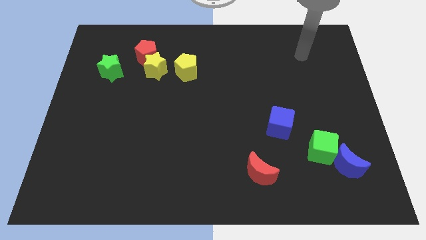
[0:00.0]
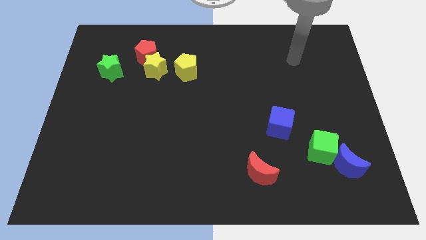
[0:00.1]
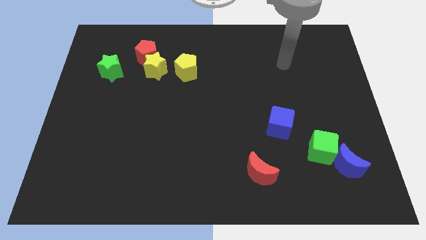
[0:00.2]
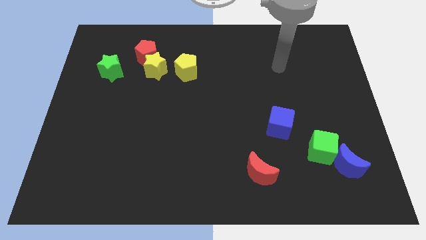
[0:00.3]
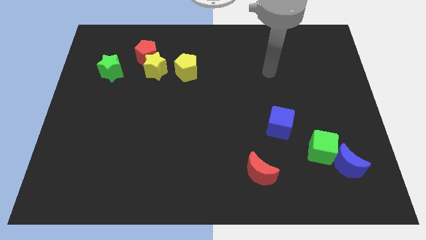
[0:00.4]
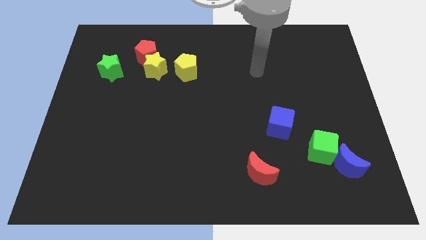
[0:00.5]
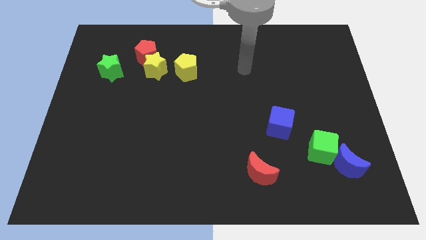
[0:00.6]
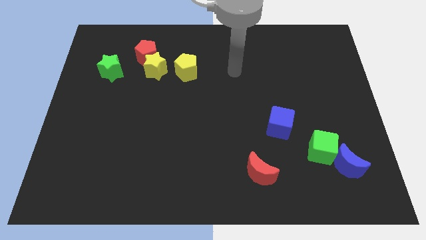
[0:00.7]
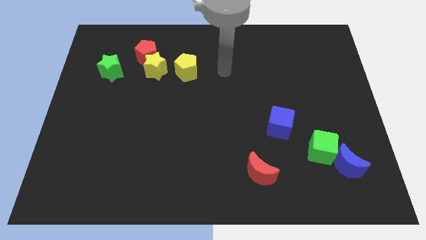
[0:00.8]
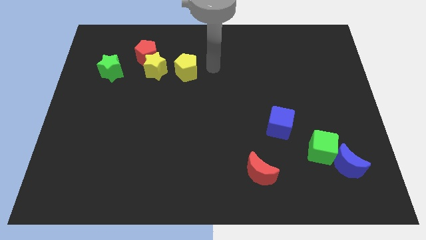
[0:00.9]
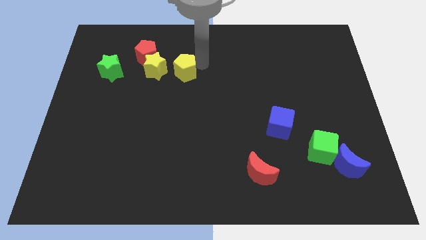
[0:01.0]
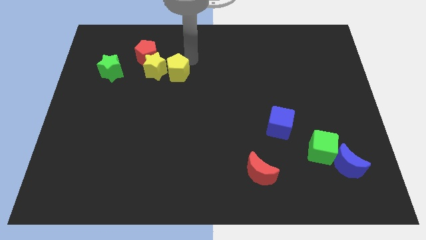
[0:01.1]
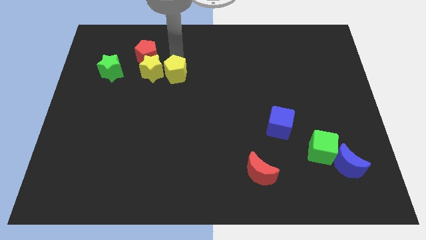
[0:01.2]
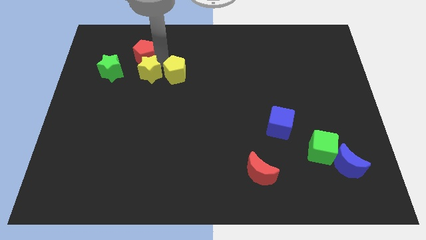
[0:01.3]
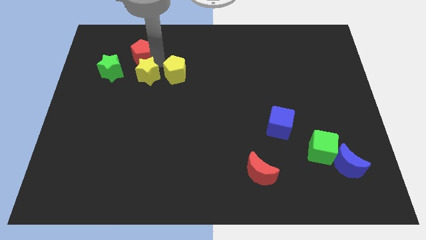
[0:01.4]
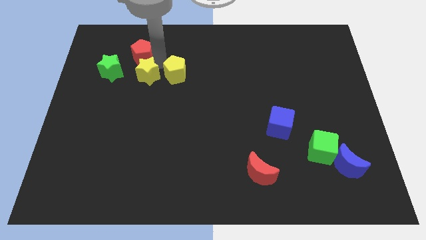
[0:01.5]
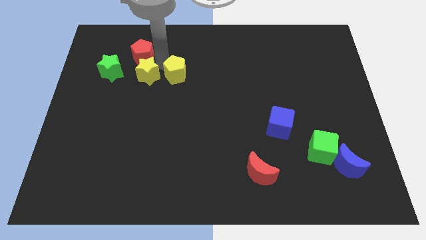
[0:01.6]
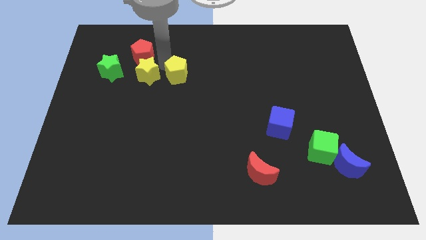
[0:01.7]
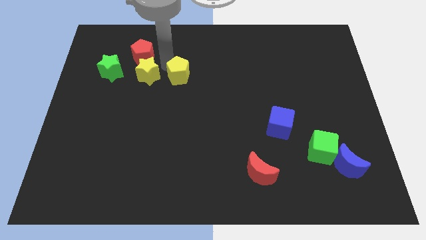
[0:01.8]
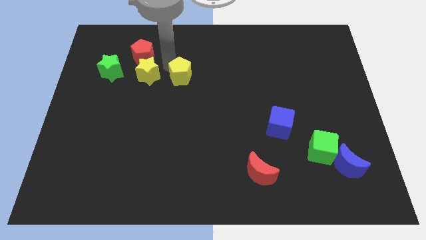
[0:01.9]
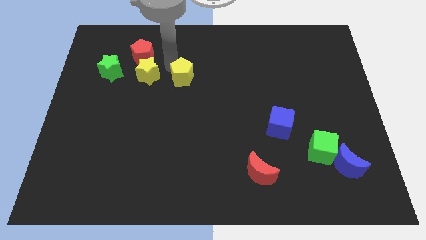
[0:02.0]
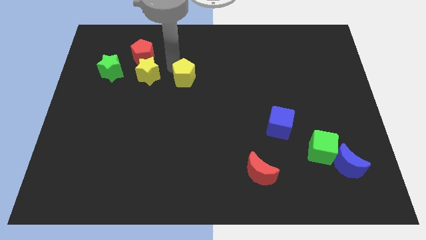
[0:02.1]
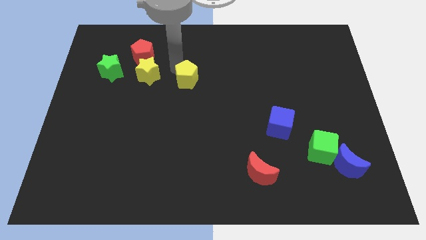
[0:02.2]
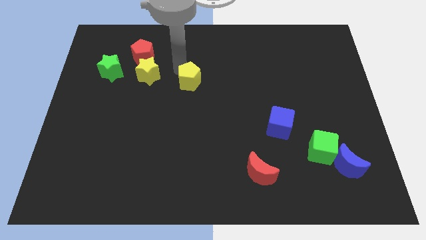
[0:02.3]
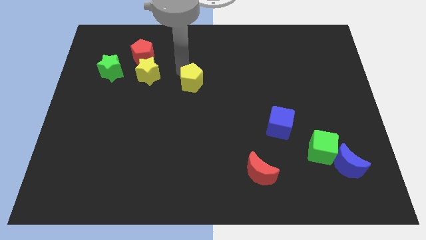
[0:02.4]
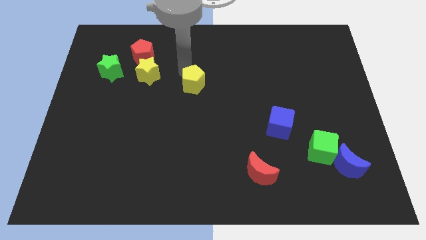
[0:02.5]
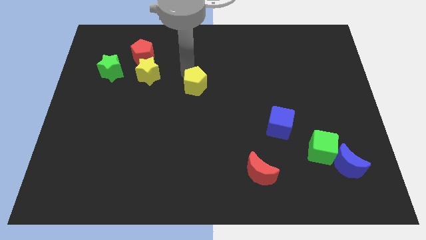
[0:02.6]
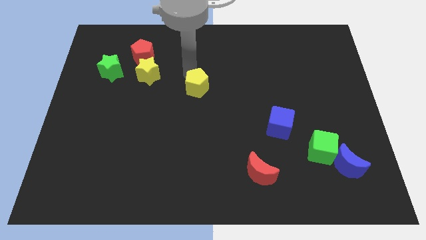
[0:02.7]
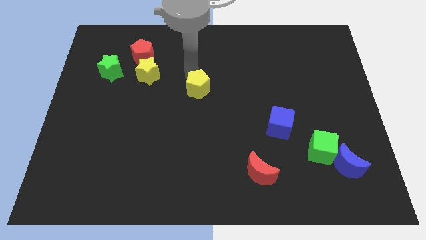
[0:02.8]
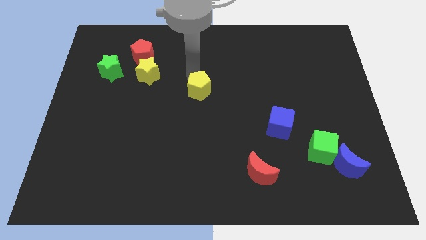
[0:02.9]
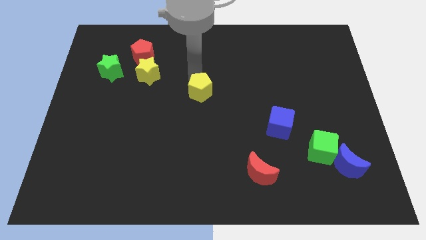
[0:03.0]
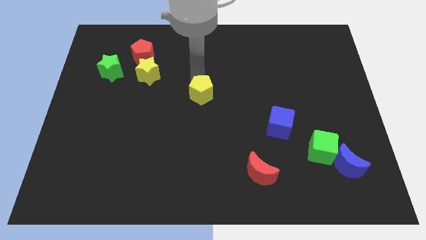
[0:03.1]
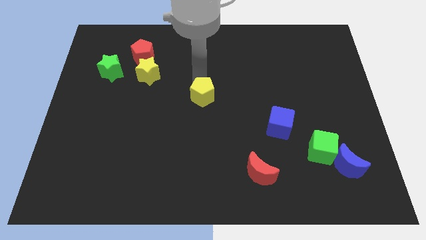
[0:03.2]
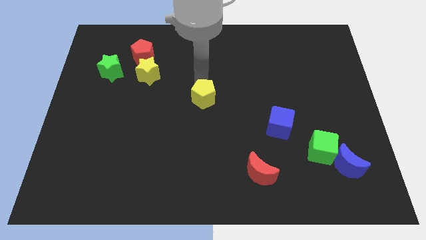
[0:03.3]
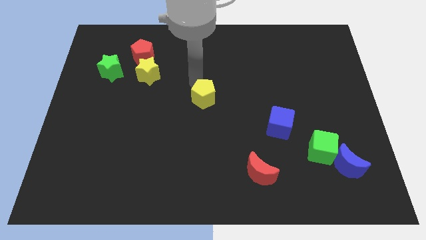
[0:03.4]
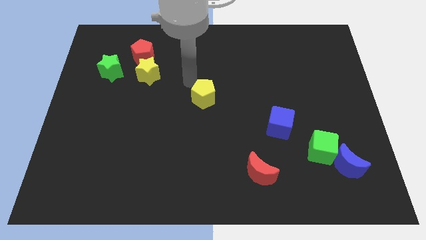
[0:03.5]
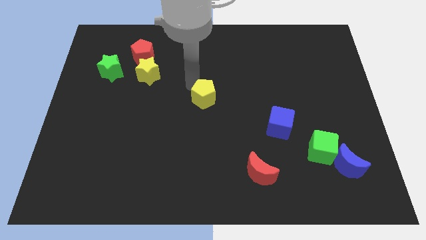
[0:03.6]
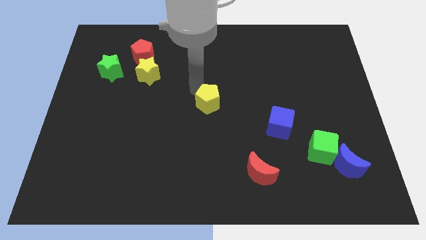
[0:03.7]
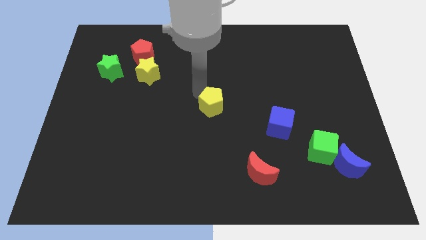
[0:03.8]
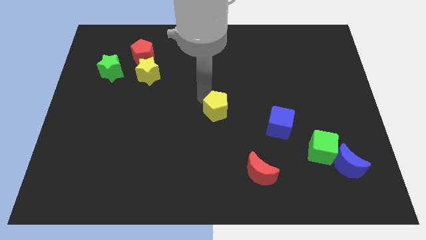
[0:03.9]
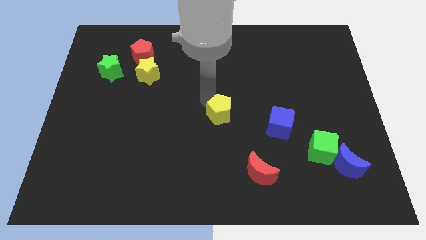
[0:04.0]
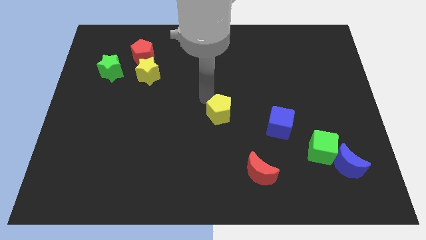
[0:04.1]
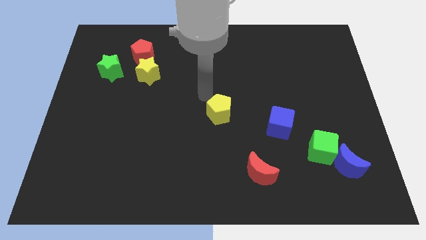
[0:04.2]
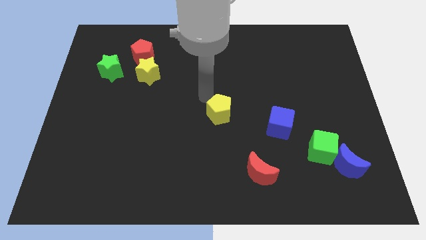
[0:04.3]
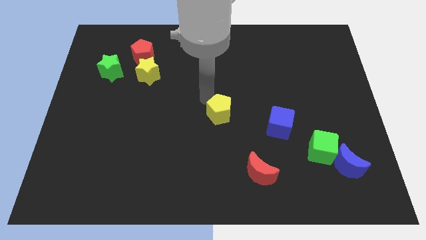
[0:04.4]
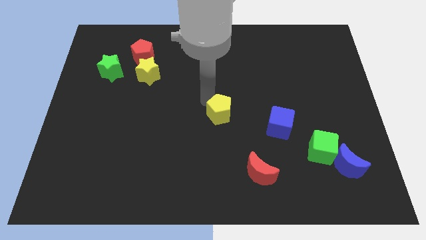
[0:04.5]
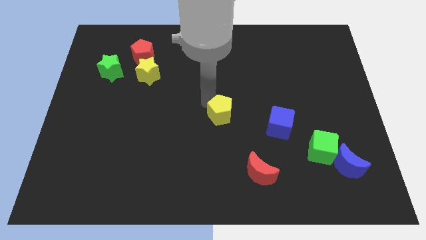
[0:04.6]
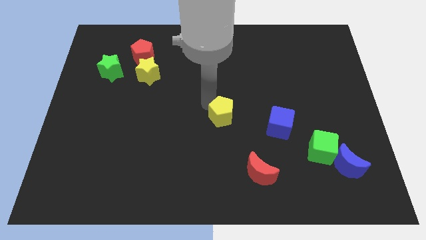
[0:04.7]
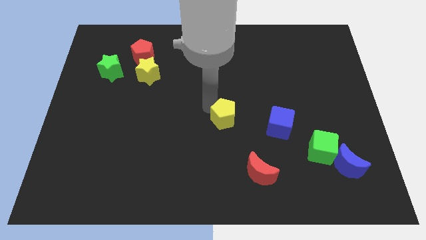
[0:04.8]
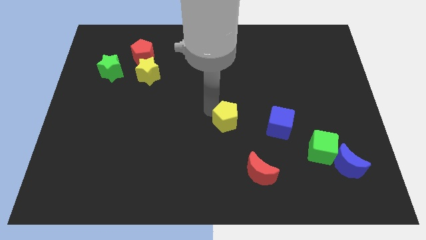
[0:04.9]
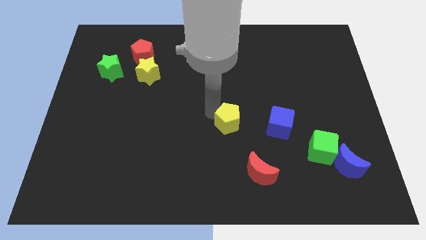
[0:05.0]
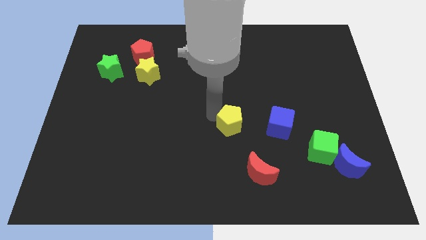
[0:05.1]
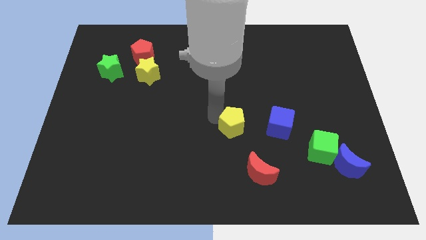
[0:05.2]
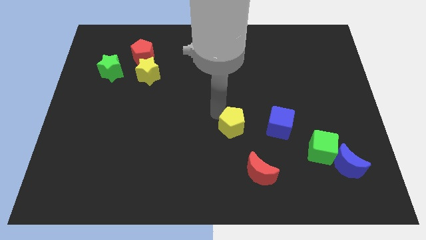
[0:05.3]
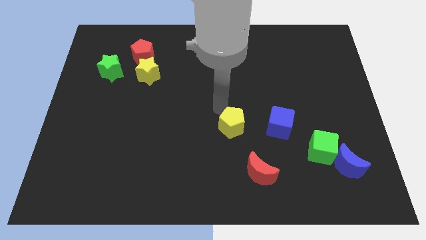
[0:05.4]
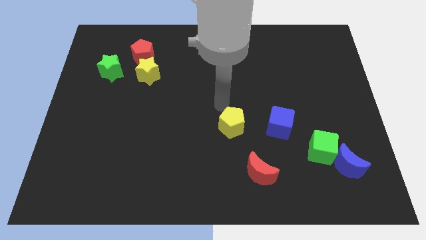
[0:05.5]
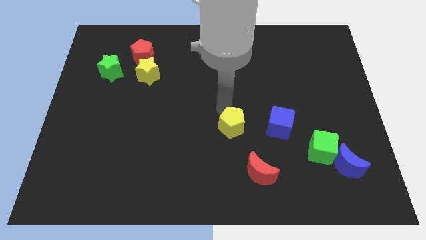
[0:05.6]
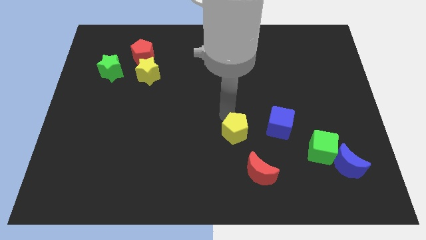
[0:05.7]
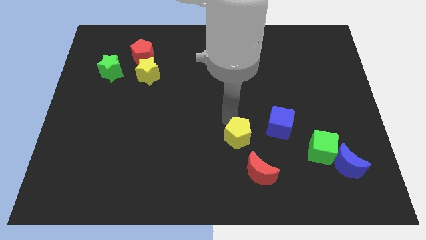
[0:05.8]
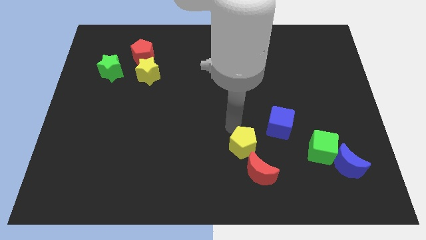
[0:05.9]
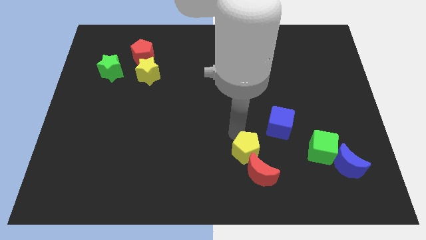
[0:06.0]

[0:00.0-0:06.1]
move the yellow pentagon next to the red moon

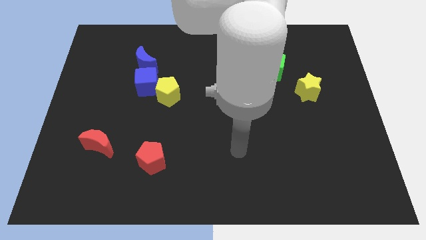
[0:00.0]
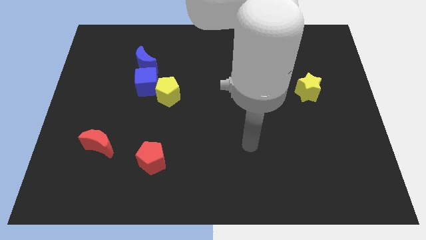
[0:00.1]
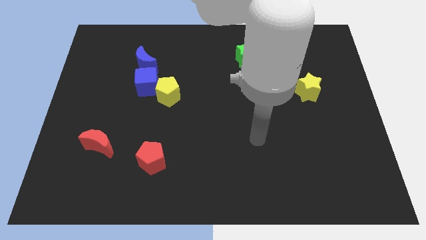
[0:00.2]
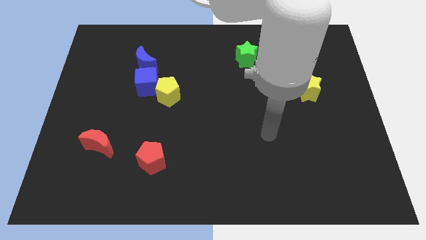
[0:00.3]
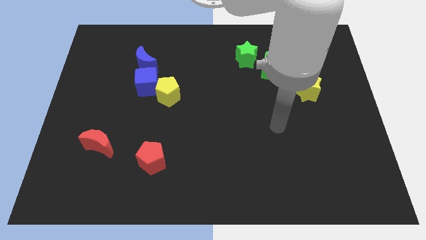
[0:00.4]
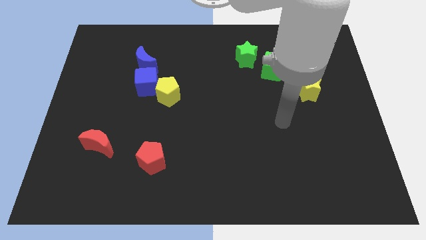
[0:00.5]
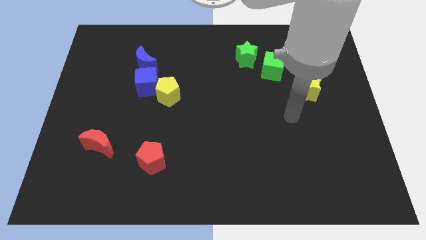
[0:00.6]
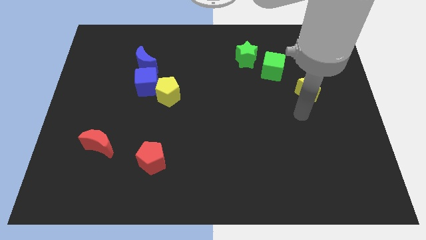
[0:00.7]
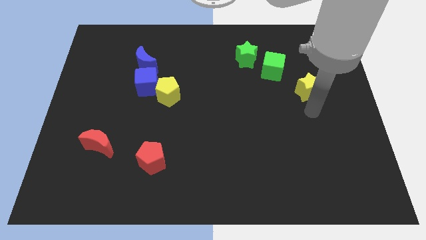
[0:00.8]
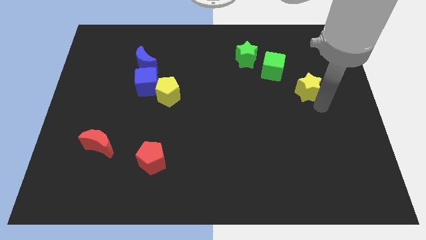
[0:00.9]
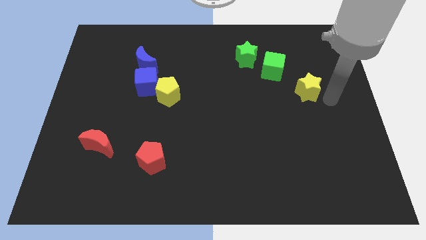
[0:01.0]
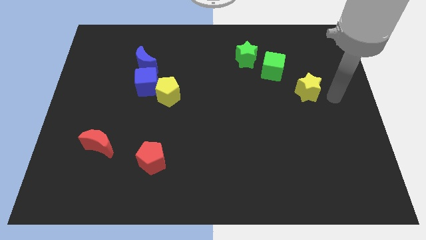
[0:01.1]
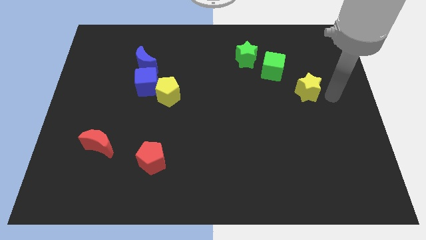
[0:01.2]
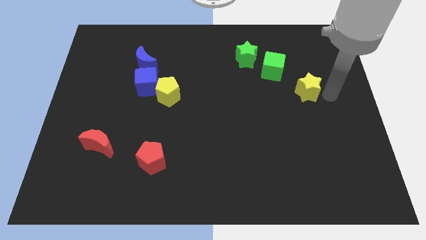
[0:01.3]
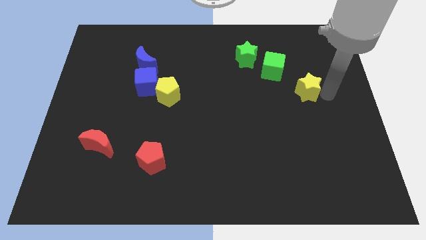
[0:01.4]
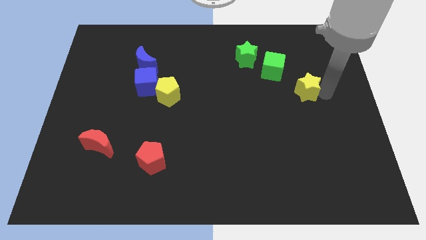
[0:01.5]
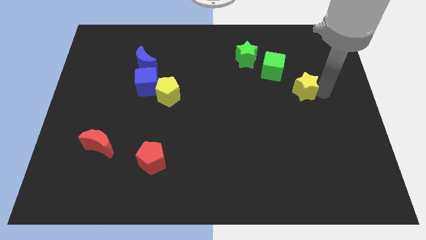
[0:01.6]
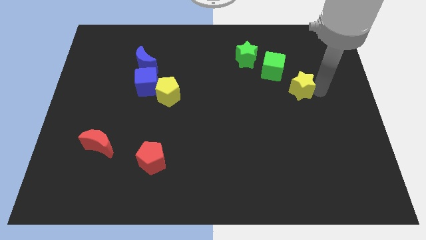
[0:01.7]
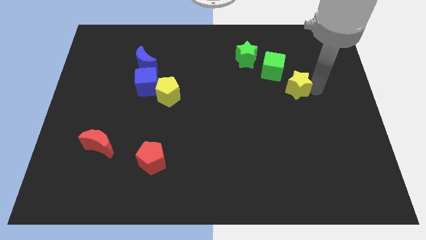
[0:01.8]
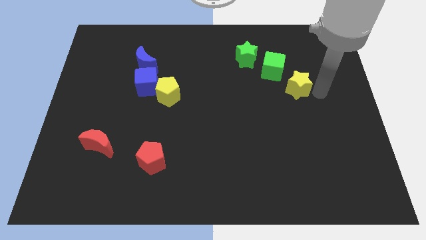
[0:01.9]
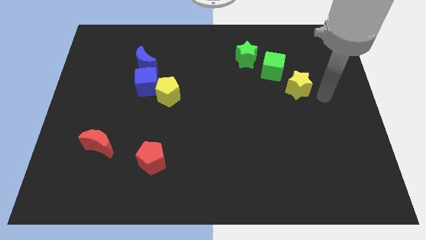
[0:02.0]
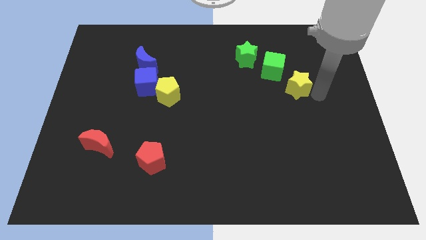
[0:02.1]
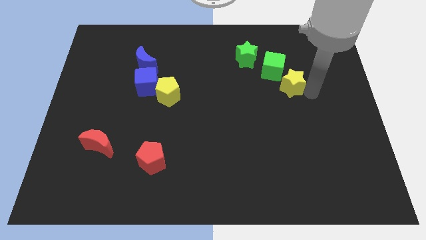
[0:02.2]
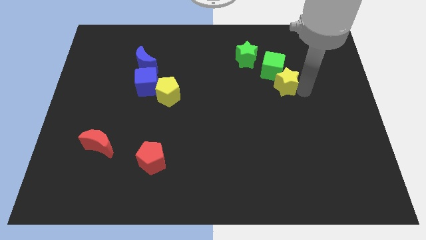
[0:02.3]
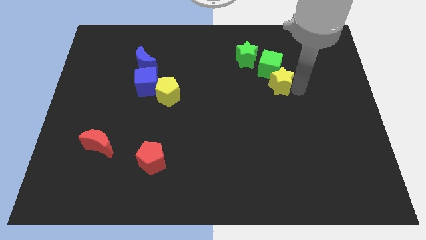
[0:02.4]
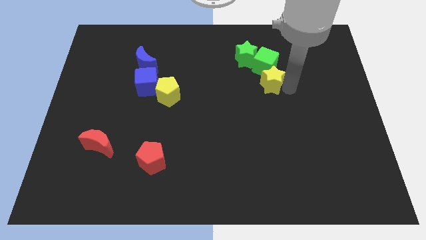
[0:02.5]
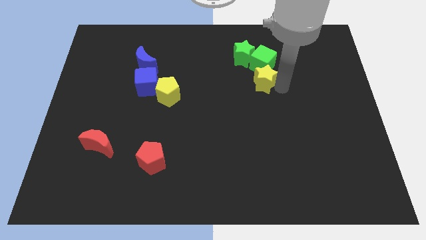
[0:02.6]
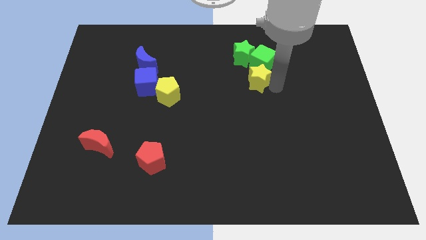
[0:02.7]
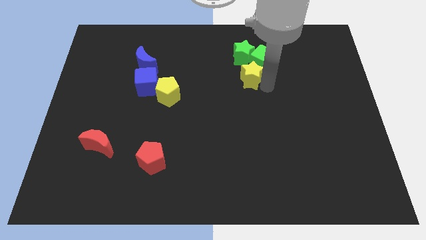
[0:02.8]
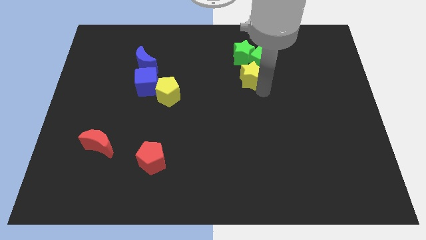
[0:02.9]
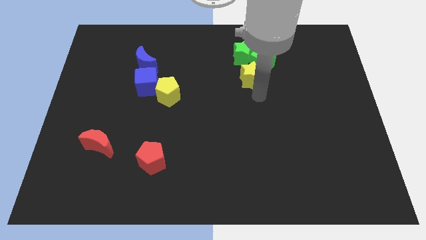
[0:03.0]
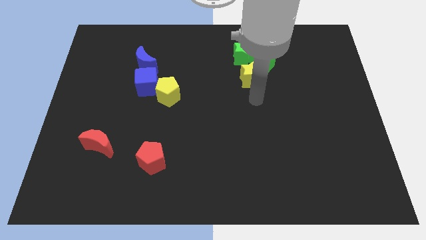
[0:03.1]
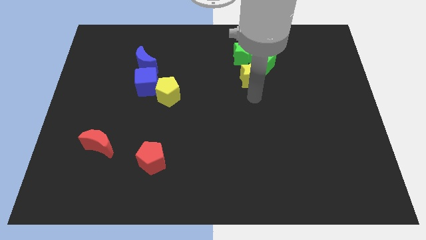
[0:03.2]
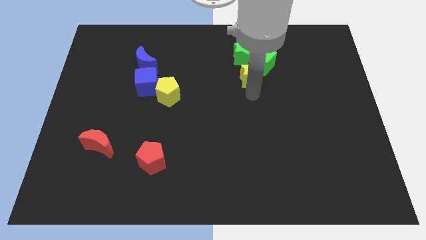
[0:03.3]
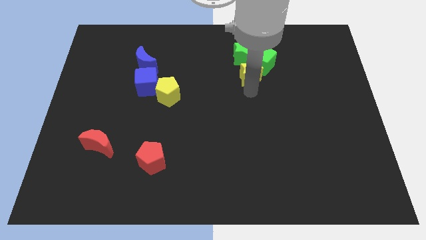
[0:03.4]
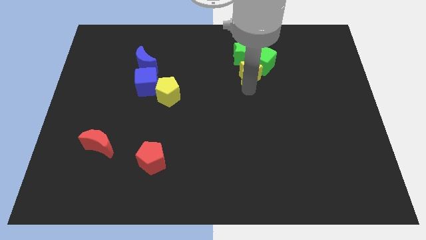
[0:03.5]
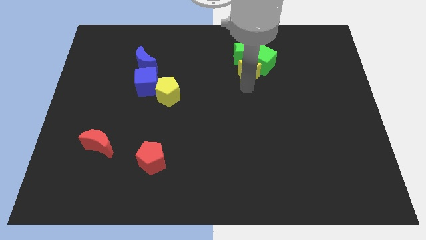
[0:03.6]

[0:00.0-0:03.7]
move the yellow star to the green star
